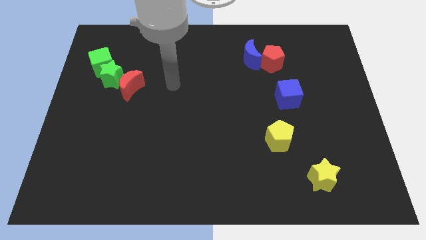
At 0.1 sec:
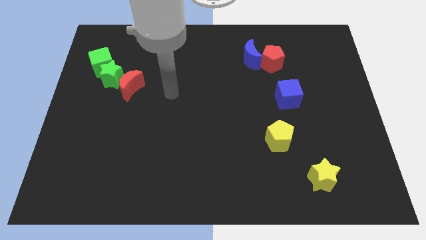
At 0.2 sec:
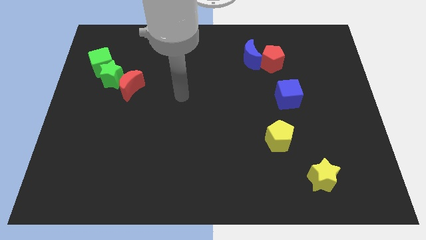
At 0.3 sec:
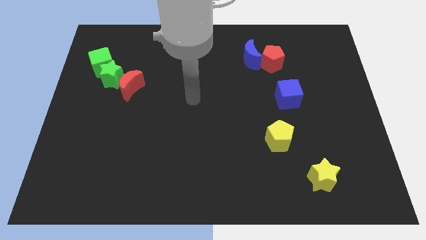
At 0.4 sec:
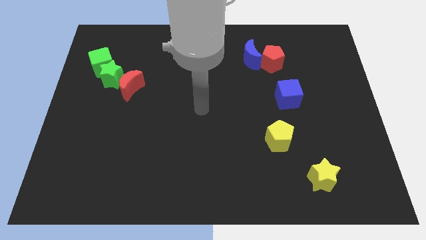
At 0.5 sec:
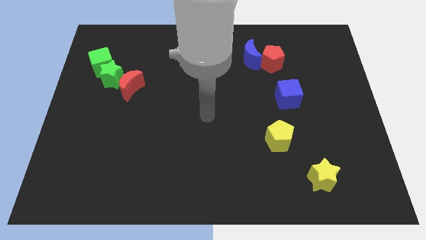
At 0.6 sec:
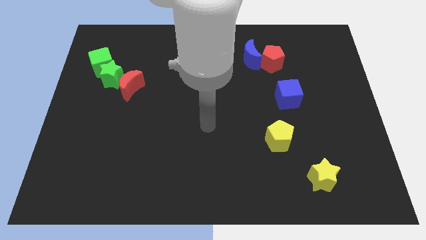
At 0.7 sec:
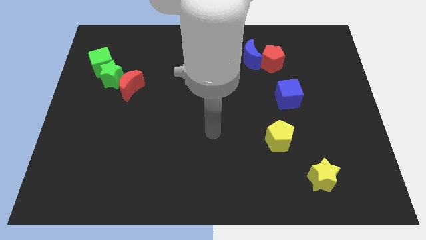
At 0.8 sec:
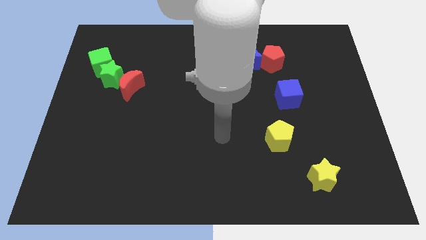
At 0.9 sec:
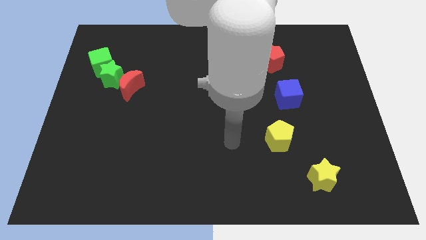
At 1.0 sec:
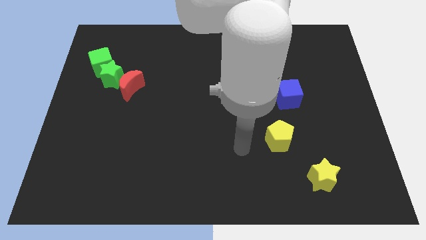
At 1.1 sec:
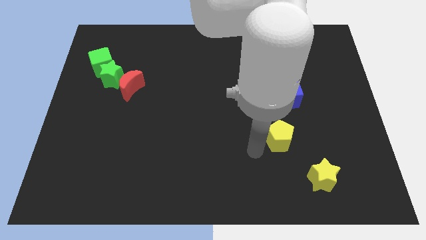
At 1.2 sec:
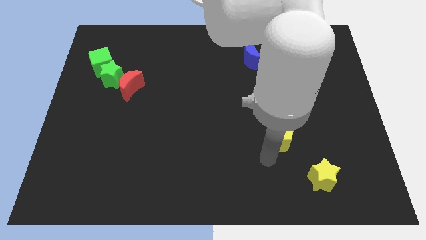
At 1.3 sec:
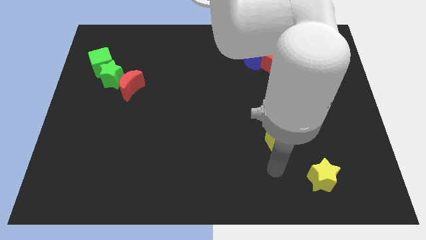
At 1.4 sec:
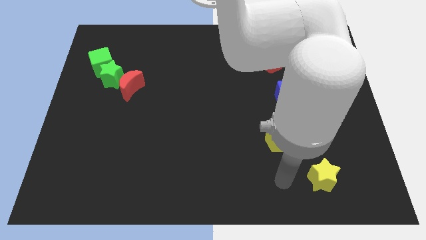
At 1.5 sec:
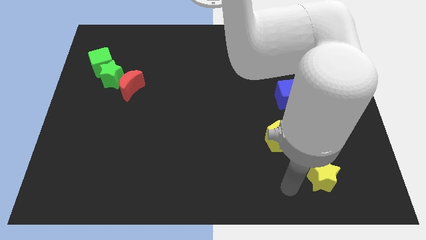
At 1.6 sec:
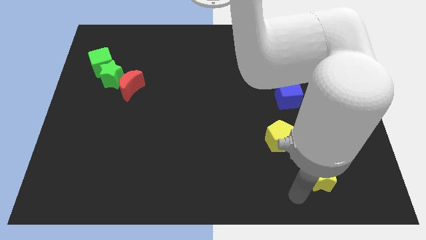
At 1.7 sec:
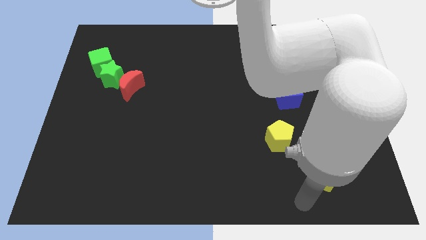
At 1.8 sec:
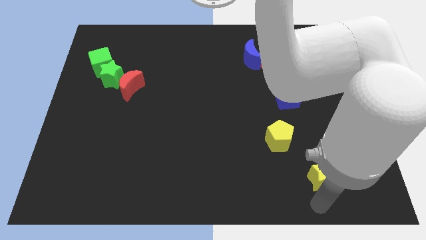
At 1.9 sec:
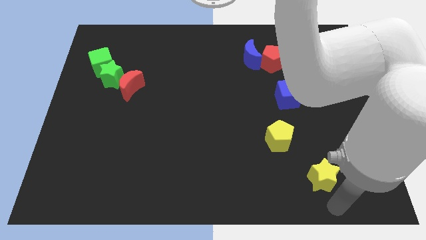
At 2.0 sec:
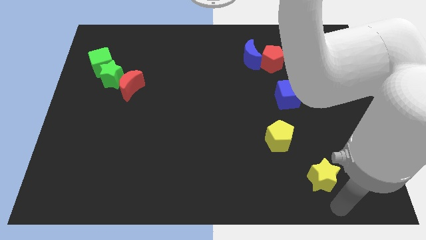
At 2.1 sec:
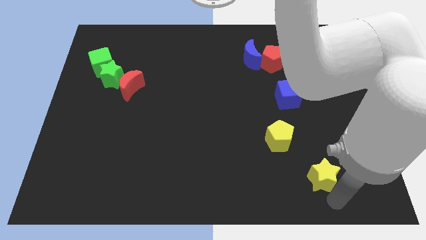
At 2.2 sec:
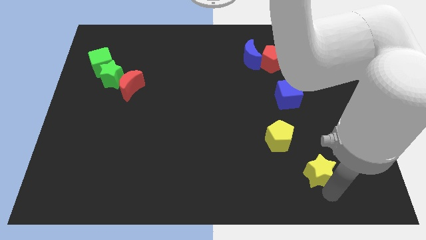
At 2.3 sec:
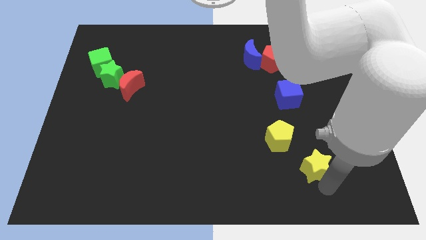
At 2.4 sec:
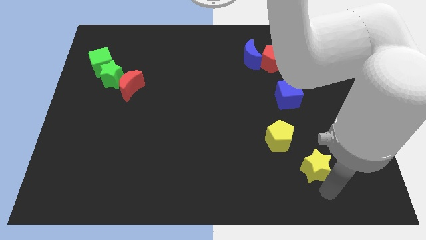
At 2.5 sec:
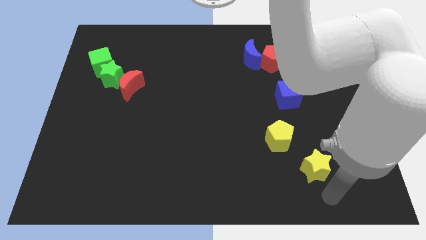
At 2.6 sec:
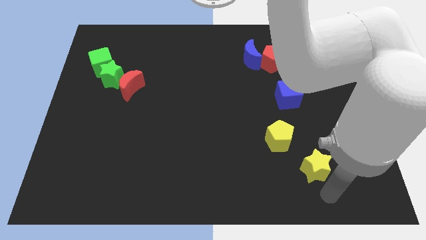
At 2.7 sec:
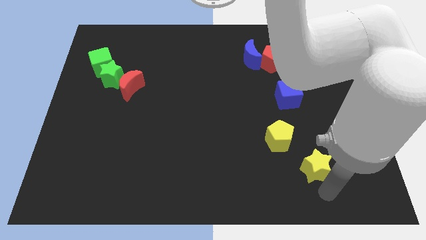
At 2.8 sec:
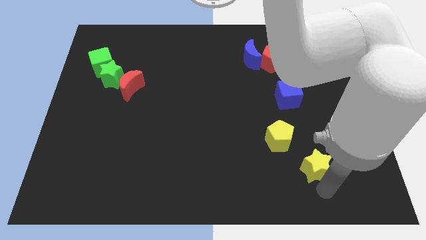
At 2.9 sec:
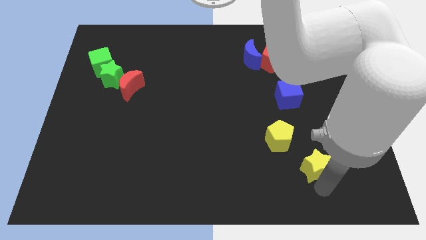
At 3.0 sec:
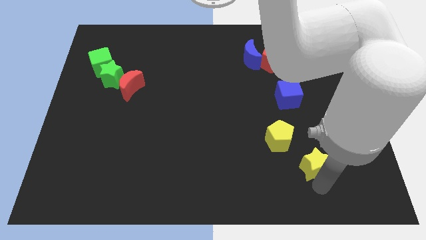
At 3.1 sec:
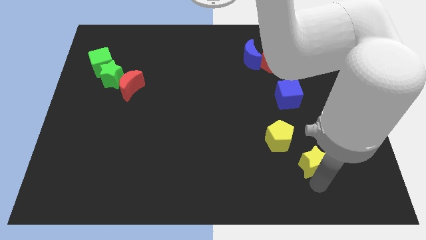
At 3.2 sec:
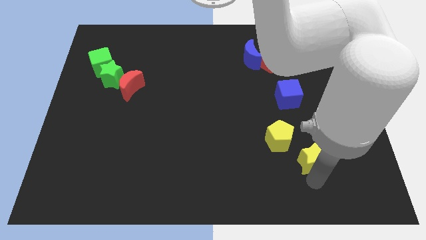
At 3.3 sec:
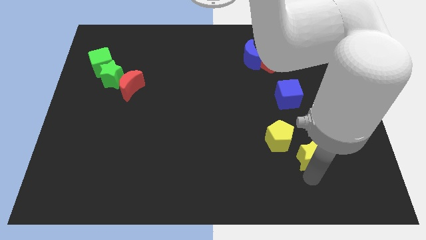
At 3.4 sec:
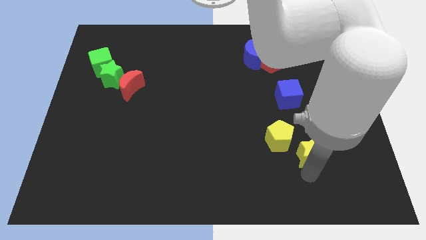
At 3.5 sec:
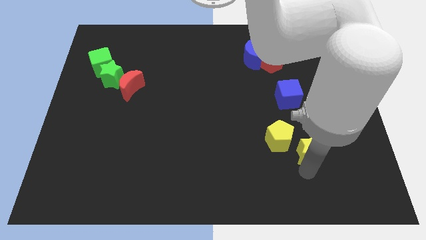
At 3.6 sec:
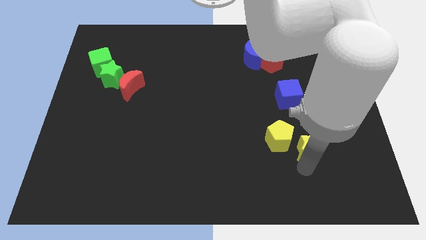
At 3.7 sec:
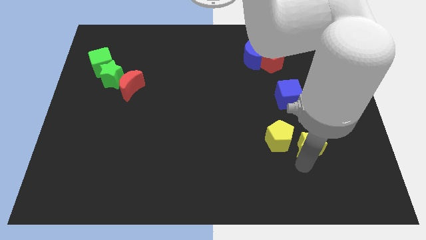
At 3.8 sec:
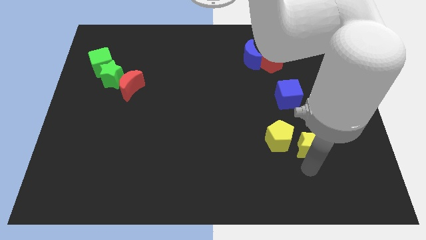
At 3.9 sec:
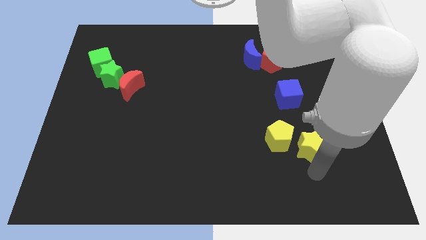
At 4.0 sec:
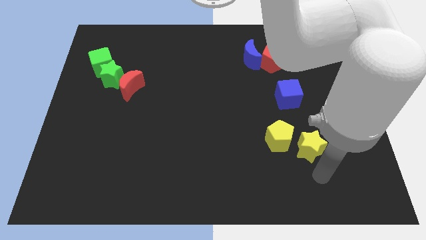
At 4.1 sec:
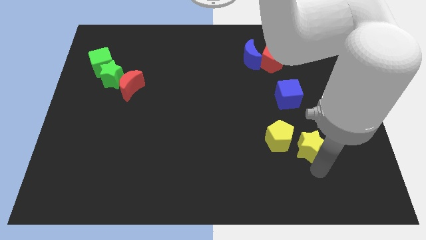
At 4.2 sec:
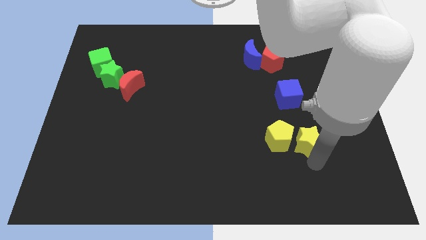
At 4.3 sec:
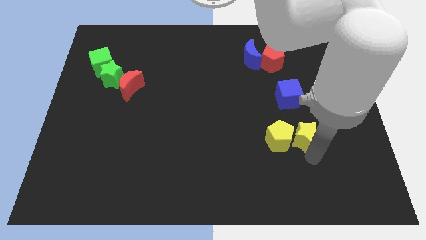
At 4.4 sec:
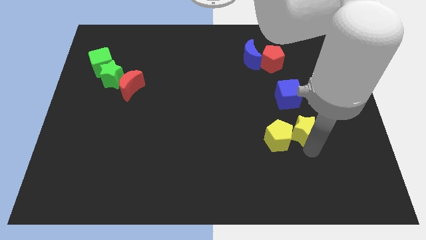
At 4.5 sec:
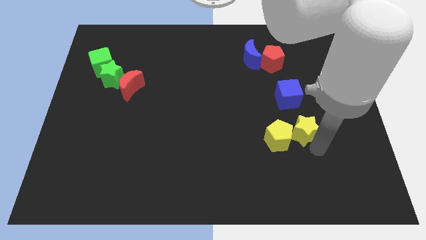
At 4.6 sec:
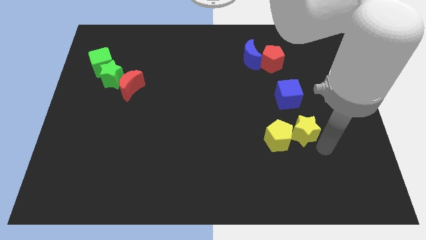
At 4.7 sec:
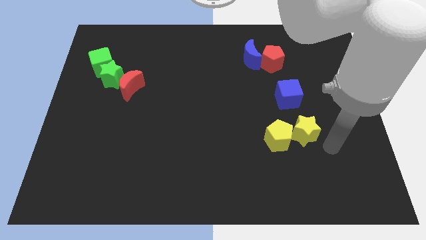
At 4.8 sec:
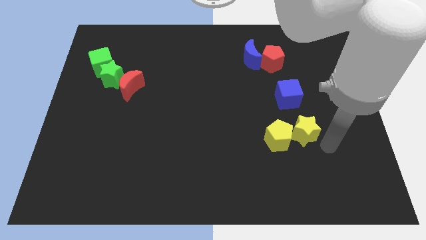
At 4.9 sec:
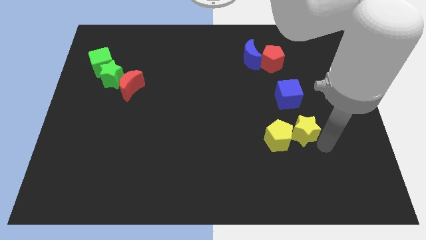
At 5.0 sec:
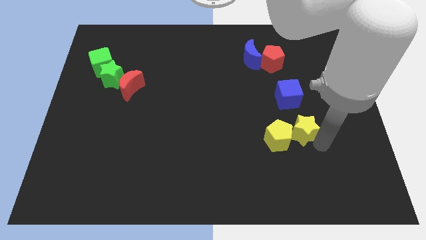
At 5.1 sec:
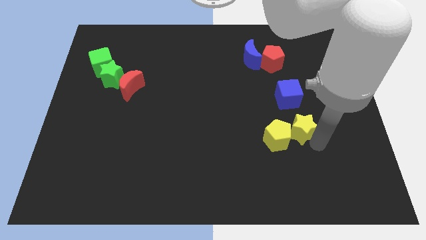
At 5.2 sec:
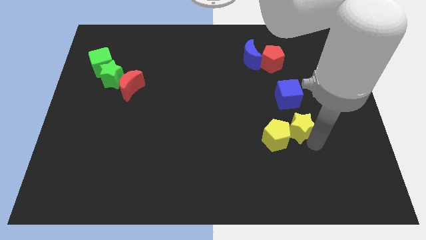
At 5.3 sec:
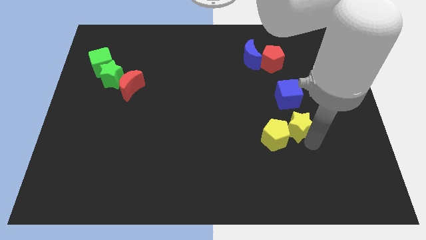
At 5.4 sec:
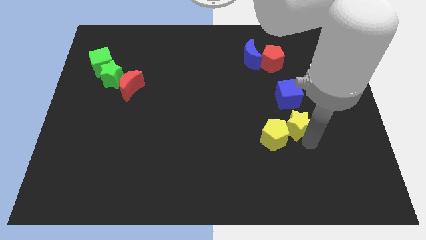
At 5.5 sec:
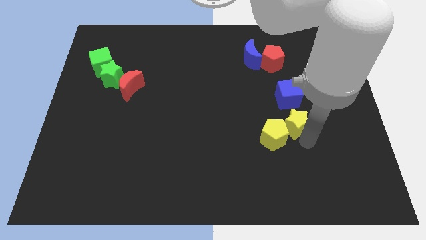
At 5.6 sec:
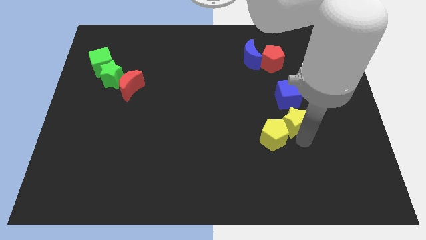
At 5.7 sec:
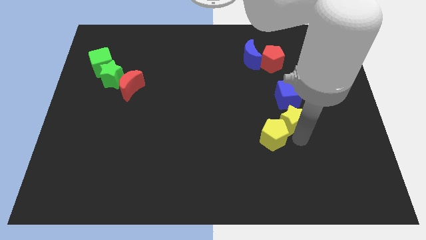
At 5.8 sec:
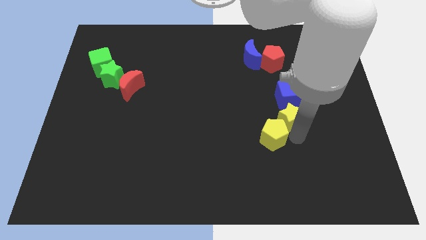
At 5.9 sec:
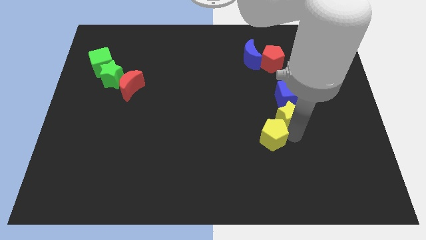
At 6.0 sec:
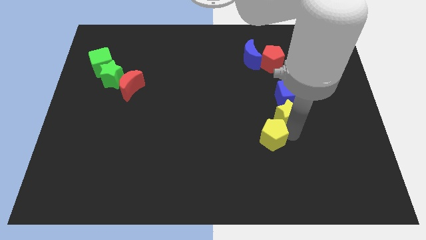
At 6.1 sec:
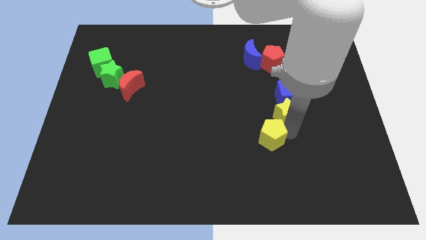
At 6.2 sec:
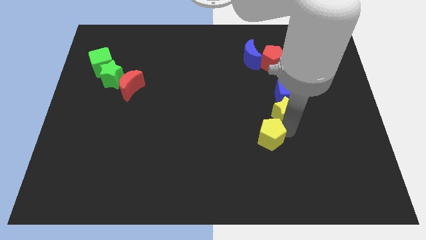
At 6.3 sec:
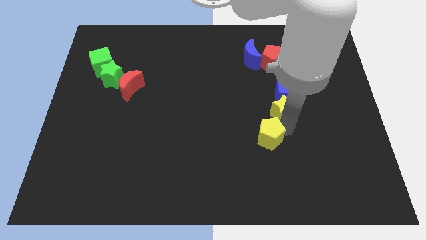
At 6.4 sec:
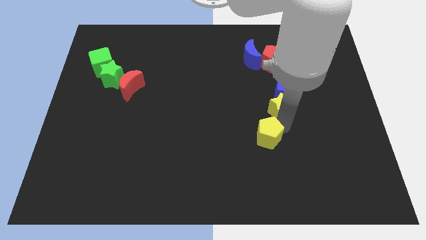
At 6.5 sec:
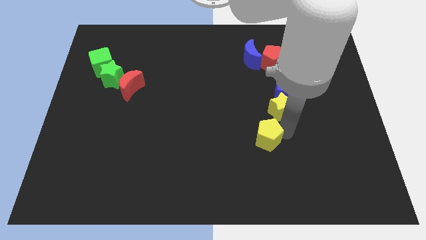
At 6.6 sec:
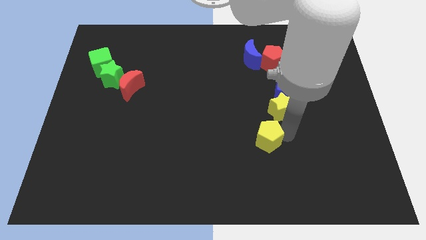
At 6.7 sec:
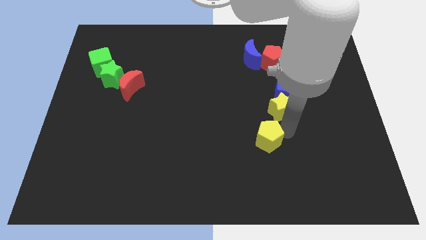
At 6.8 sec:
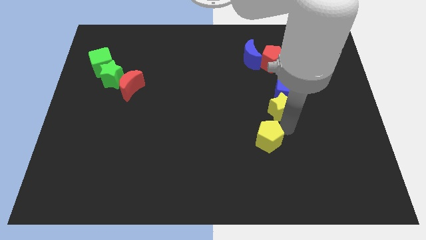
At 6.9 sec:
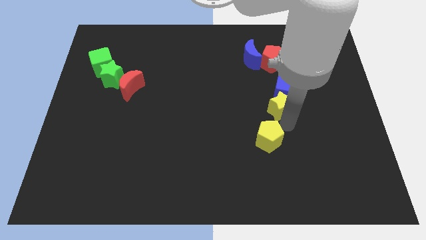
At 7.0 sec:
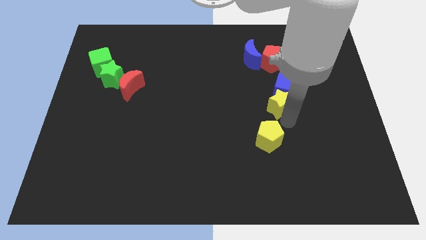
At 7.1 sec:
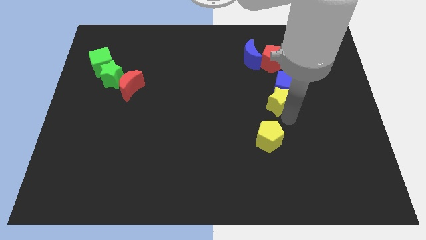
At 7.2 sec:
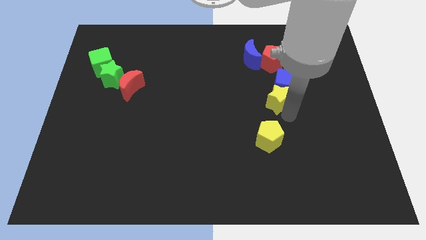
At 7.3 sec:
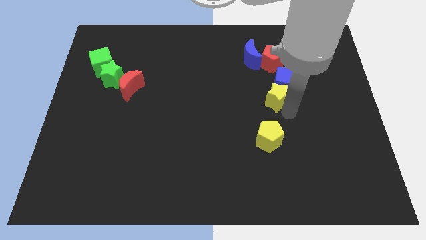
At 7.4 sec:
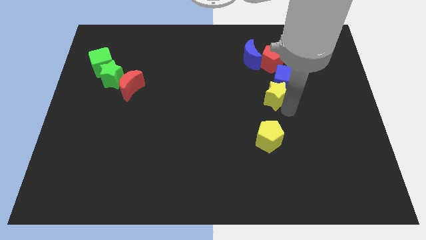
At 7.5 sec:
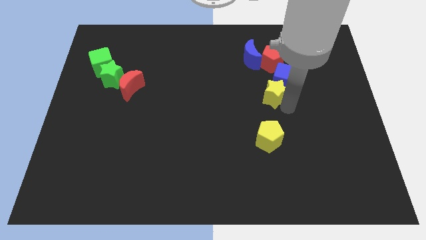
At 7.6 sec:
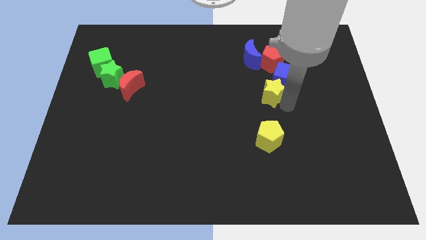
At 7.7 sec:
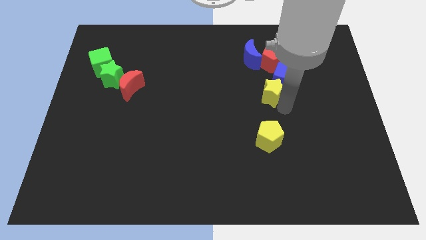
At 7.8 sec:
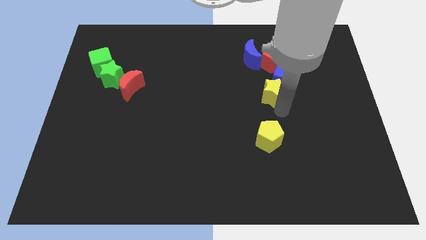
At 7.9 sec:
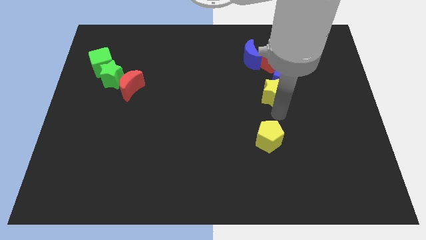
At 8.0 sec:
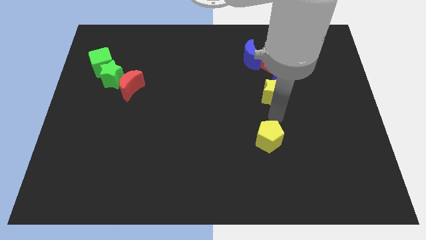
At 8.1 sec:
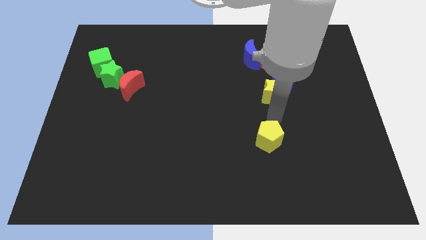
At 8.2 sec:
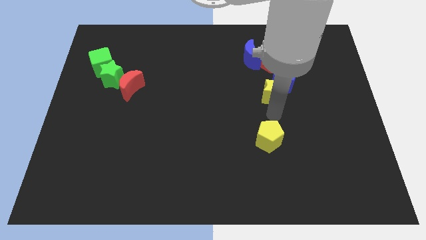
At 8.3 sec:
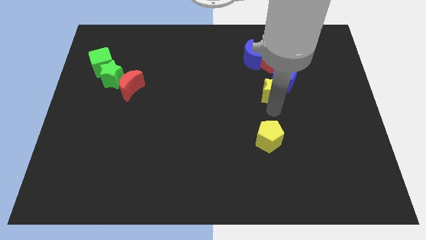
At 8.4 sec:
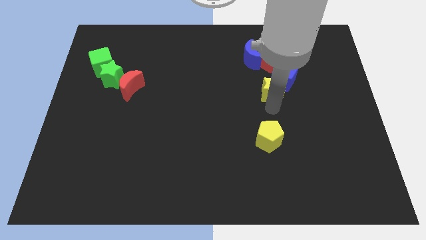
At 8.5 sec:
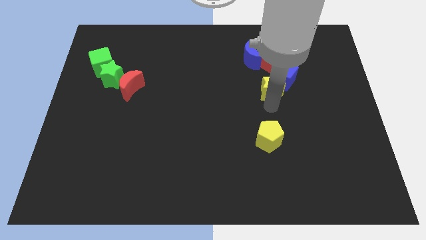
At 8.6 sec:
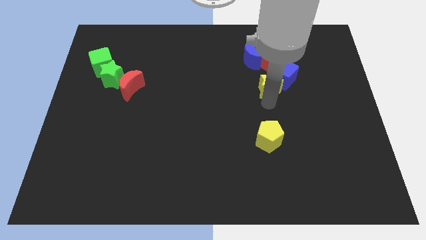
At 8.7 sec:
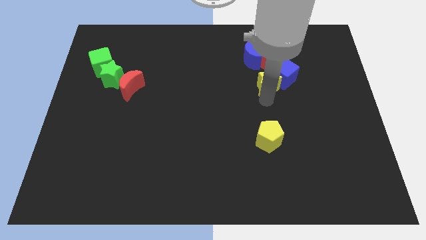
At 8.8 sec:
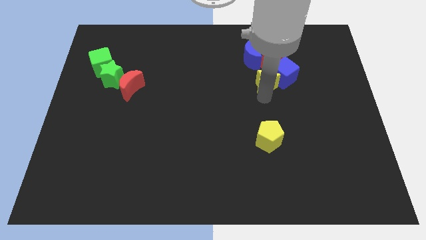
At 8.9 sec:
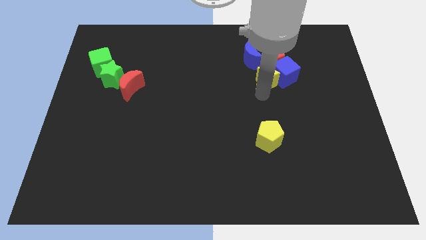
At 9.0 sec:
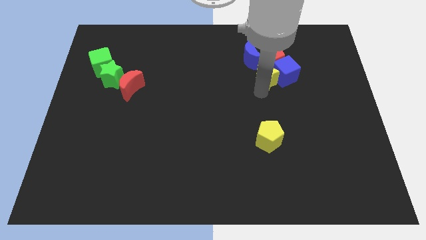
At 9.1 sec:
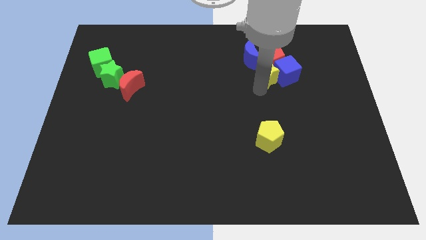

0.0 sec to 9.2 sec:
put the yellow star to the red pentagon
